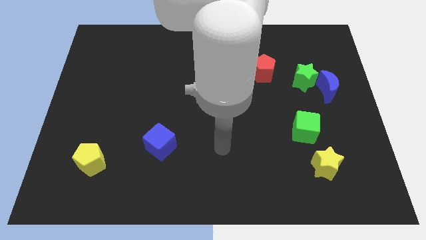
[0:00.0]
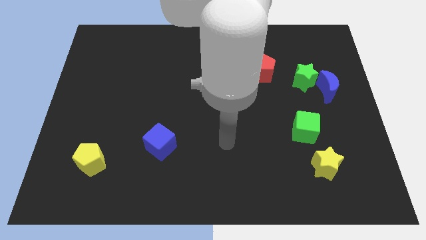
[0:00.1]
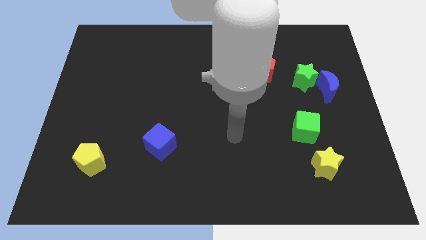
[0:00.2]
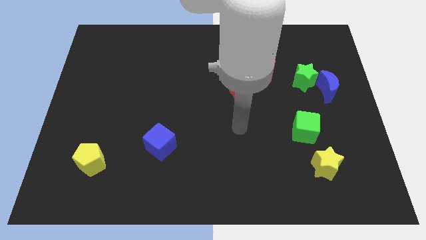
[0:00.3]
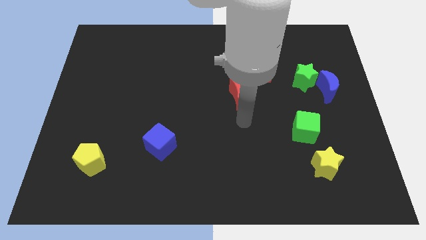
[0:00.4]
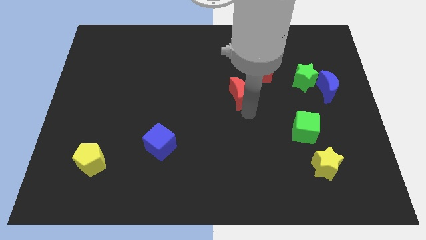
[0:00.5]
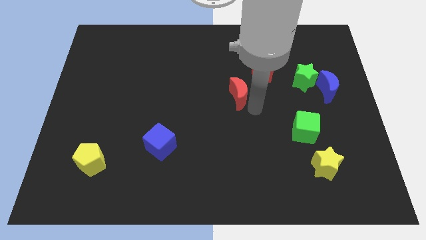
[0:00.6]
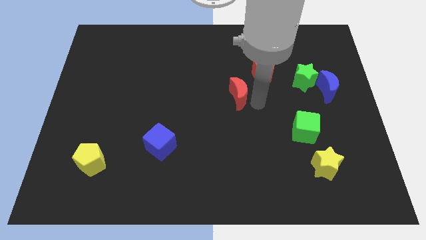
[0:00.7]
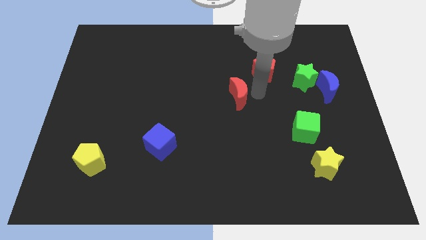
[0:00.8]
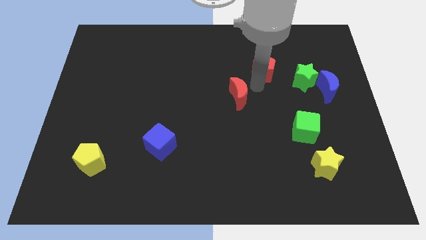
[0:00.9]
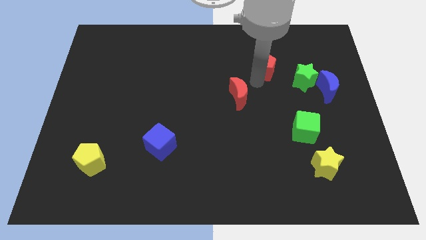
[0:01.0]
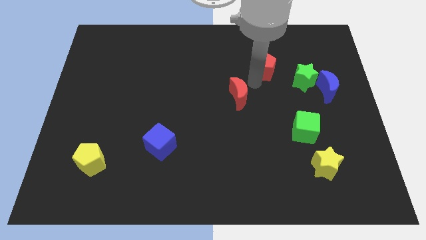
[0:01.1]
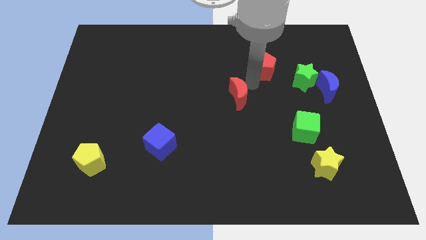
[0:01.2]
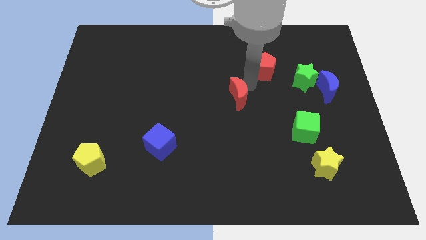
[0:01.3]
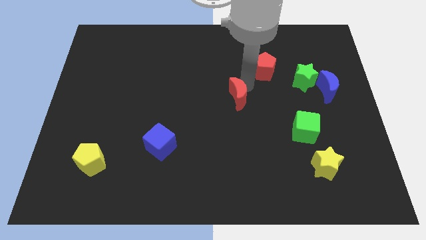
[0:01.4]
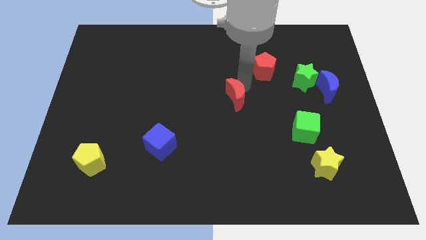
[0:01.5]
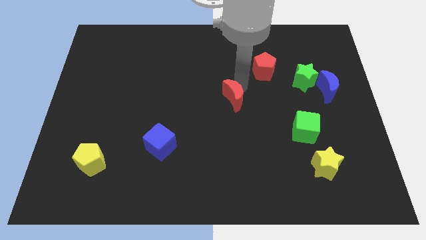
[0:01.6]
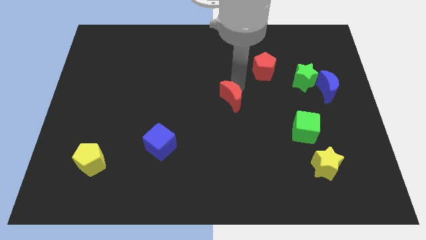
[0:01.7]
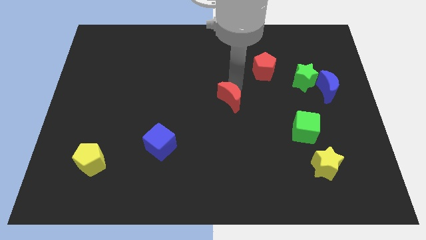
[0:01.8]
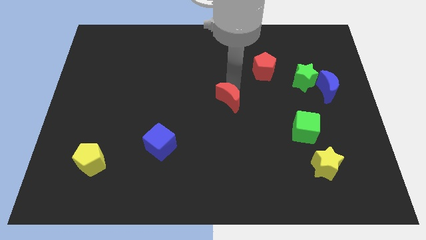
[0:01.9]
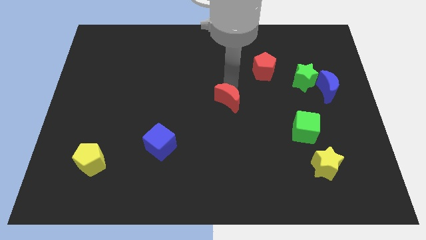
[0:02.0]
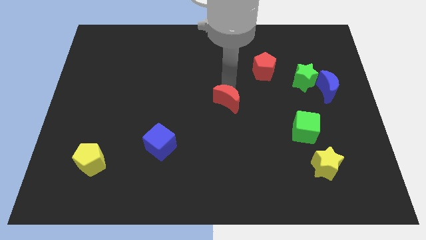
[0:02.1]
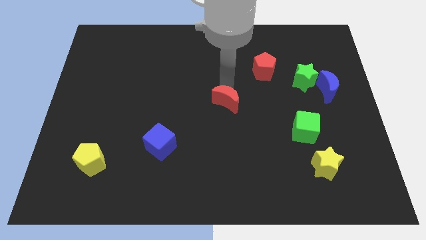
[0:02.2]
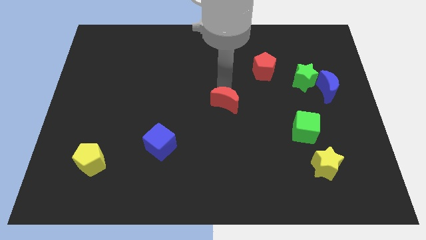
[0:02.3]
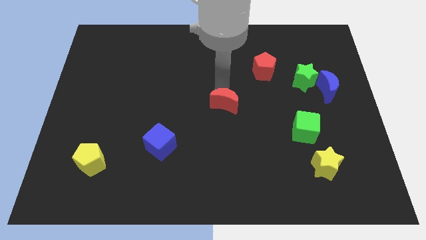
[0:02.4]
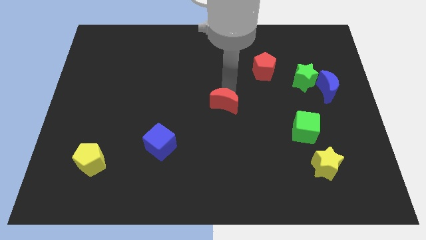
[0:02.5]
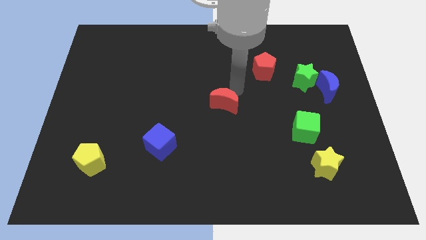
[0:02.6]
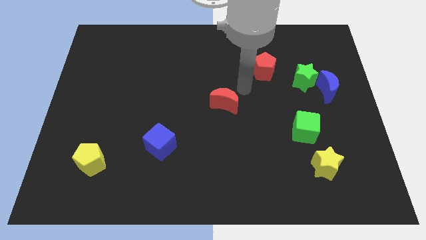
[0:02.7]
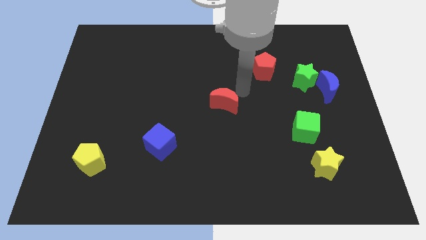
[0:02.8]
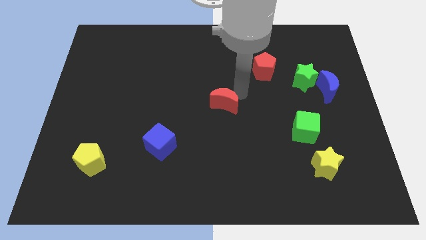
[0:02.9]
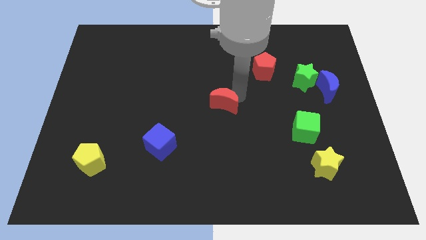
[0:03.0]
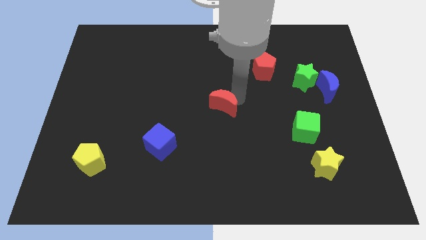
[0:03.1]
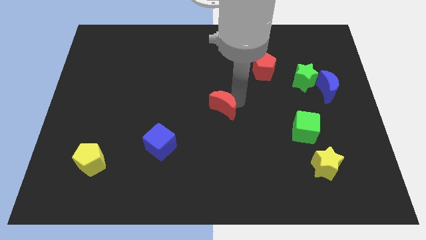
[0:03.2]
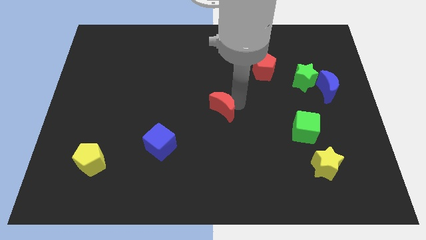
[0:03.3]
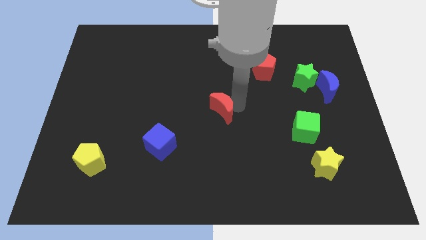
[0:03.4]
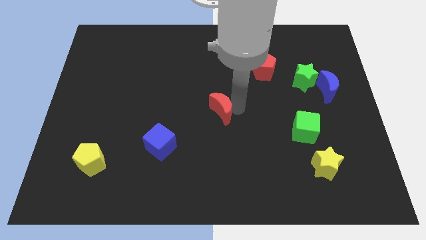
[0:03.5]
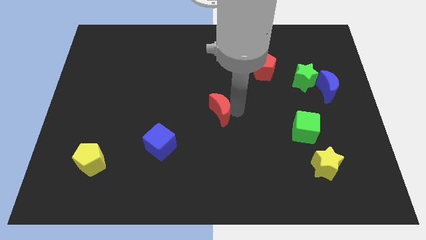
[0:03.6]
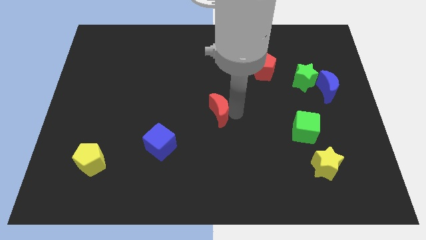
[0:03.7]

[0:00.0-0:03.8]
slightly push the red moon downwards and to the left

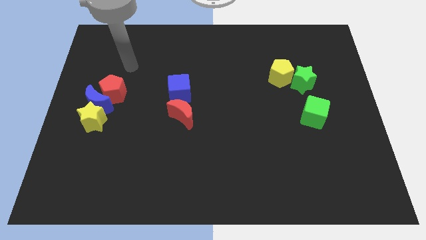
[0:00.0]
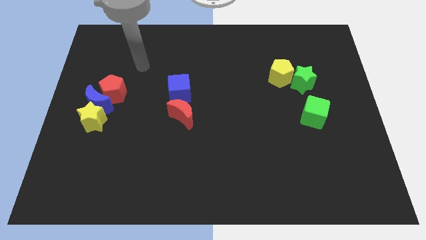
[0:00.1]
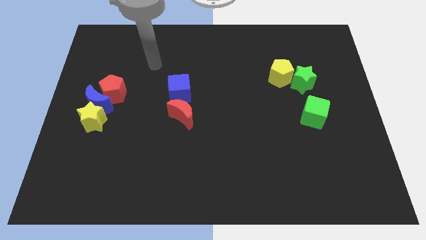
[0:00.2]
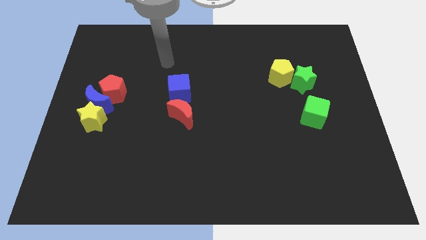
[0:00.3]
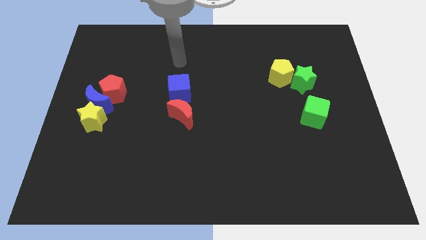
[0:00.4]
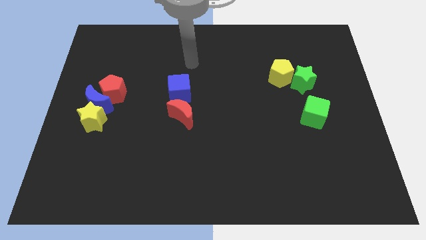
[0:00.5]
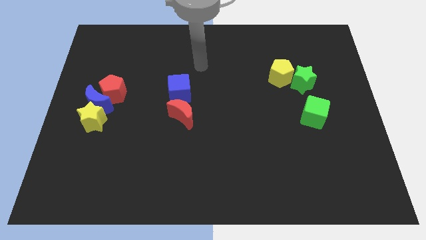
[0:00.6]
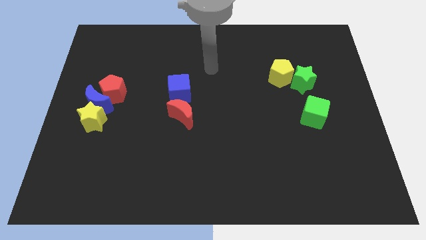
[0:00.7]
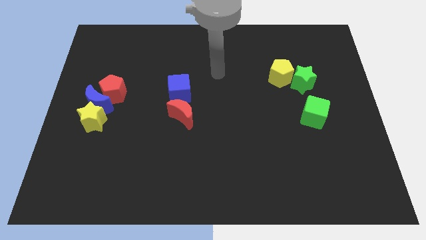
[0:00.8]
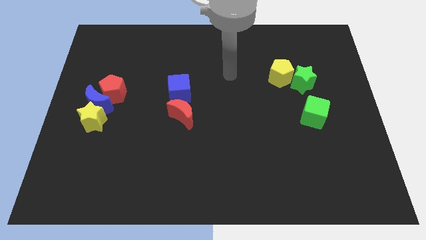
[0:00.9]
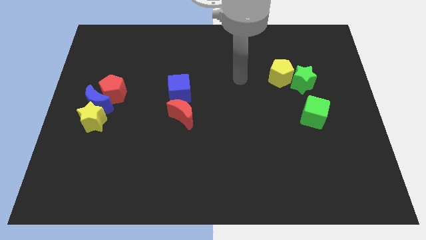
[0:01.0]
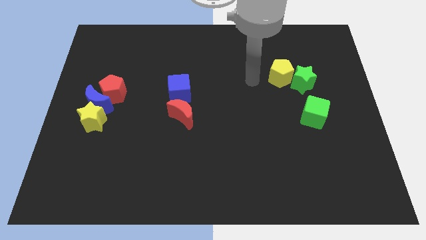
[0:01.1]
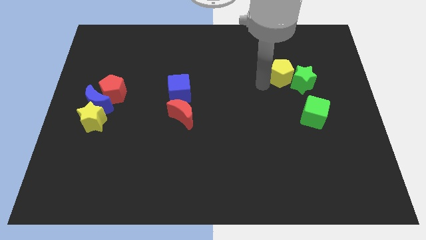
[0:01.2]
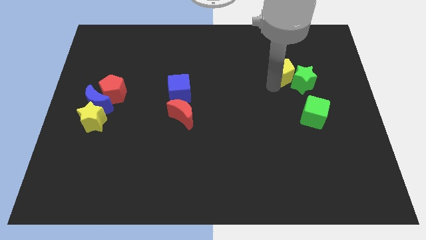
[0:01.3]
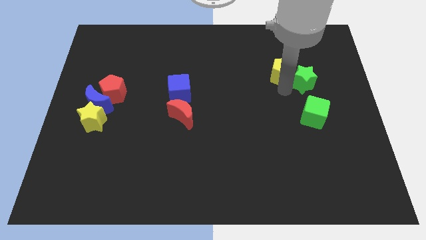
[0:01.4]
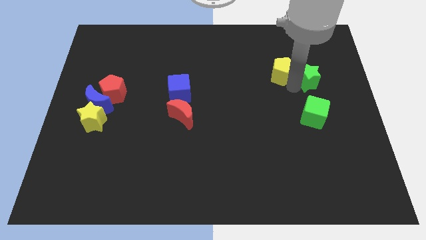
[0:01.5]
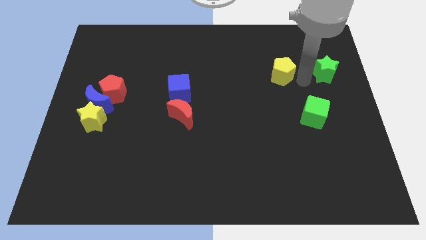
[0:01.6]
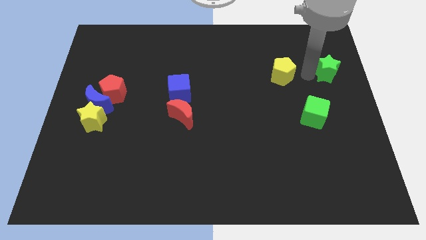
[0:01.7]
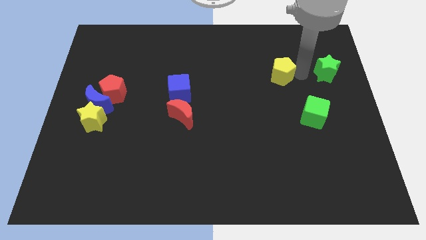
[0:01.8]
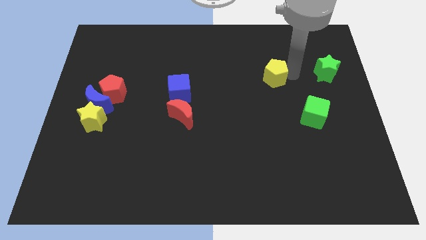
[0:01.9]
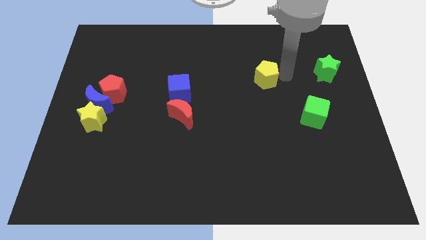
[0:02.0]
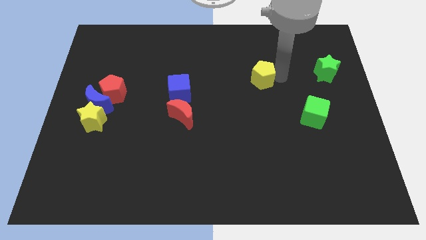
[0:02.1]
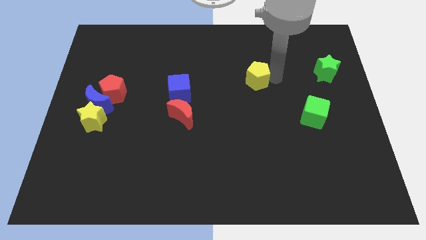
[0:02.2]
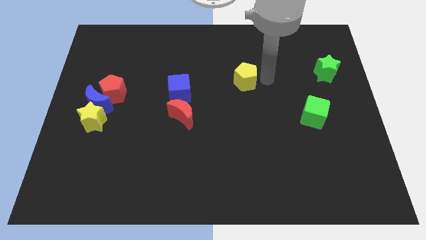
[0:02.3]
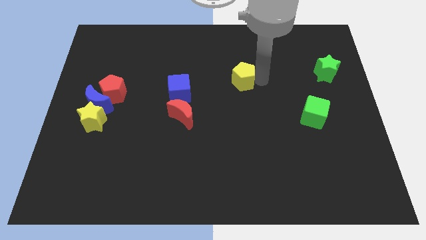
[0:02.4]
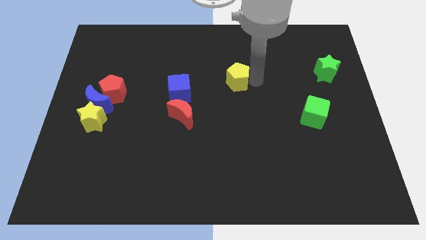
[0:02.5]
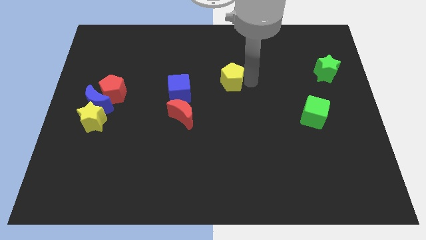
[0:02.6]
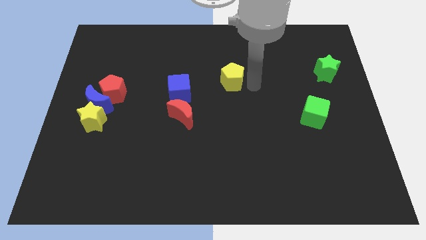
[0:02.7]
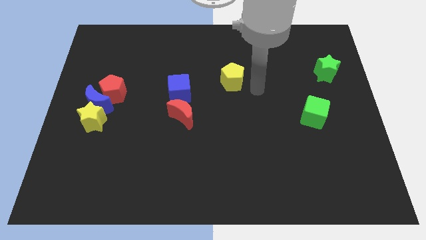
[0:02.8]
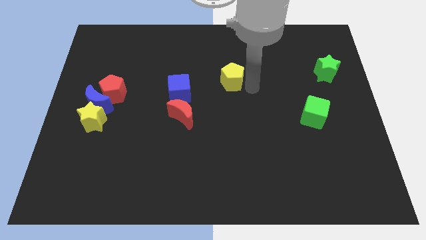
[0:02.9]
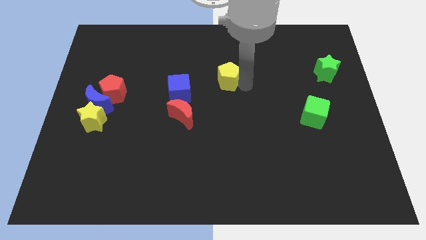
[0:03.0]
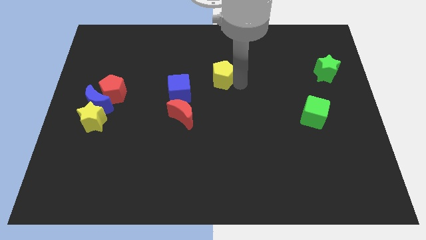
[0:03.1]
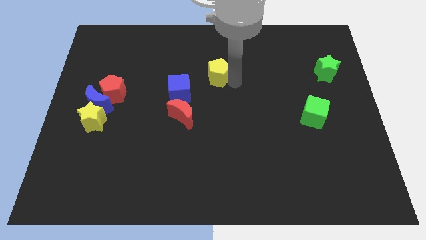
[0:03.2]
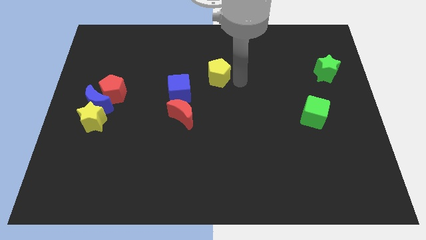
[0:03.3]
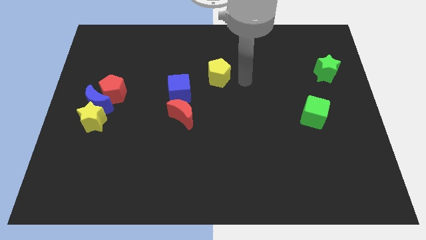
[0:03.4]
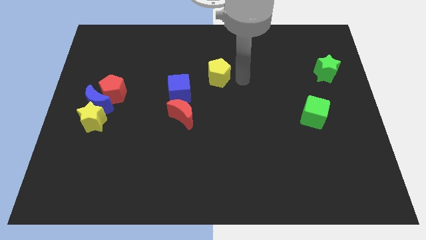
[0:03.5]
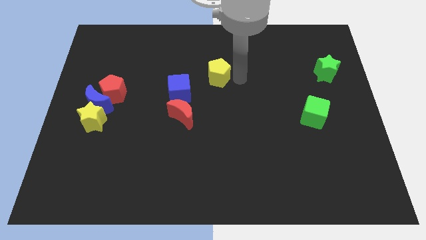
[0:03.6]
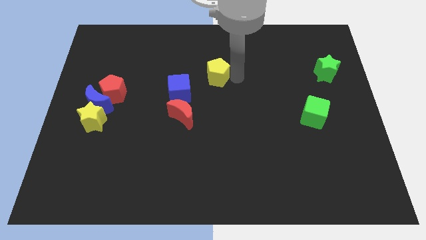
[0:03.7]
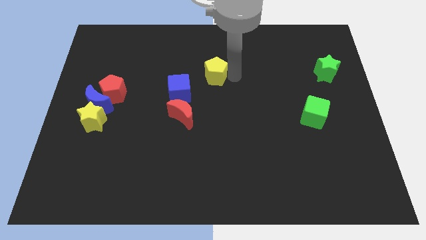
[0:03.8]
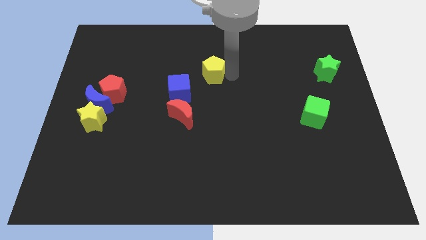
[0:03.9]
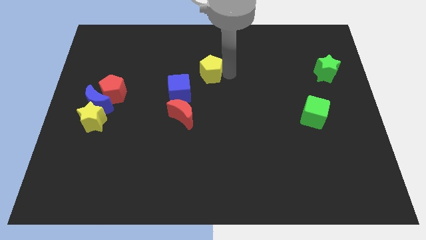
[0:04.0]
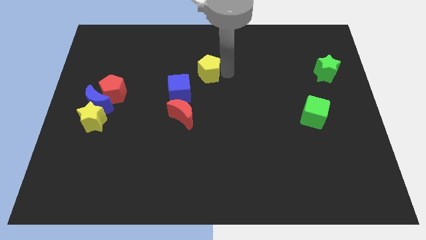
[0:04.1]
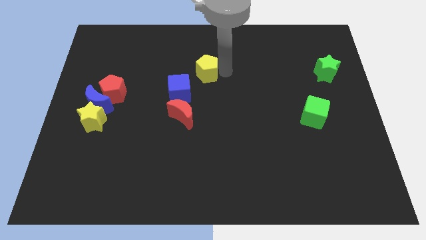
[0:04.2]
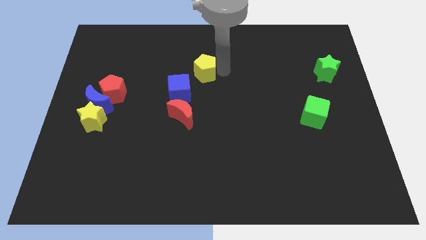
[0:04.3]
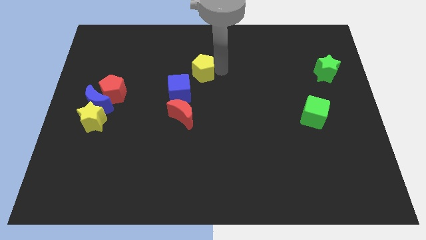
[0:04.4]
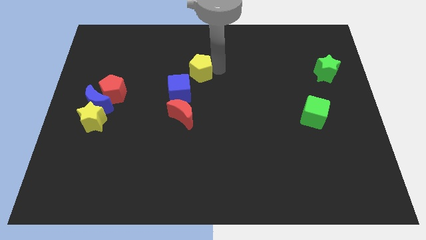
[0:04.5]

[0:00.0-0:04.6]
slide the yellow pentagon to the left
